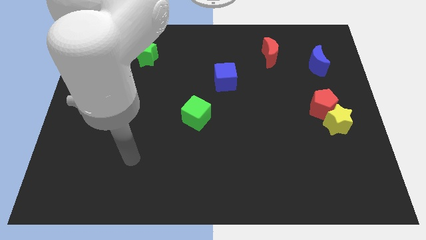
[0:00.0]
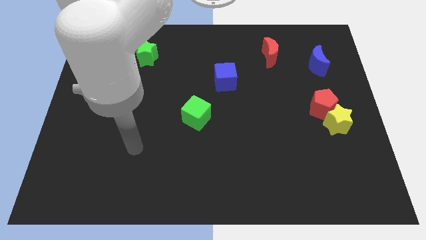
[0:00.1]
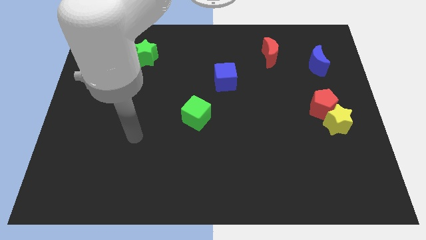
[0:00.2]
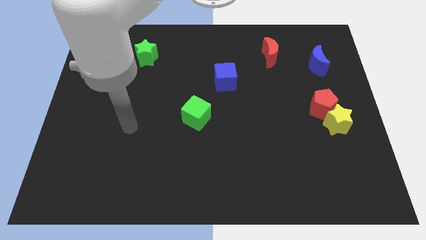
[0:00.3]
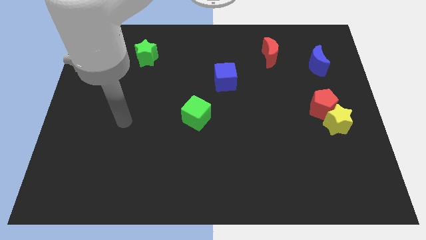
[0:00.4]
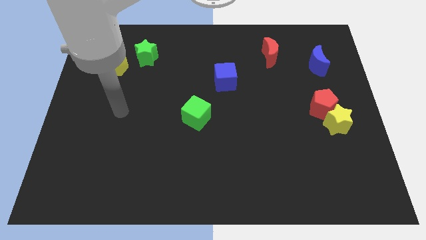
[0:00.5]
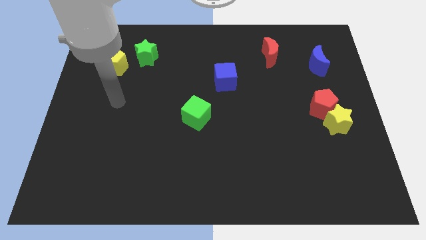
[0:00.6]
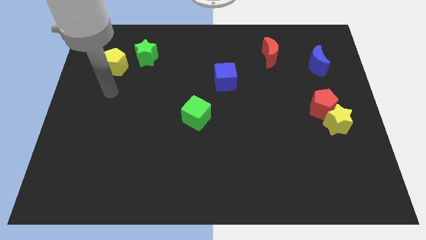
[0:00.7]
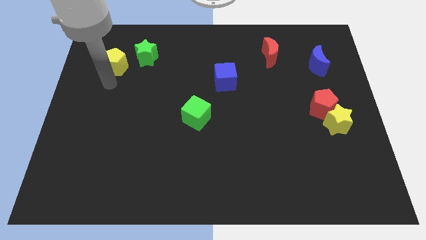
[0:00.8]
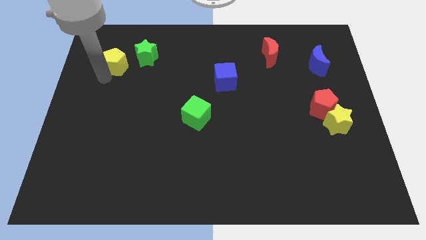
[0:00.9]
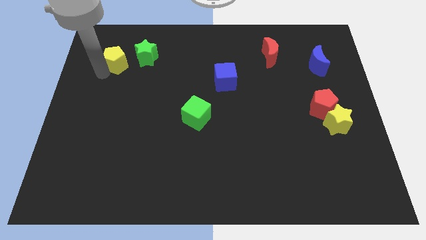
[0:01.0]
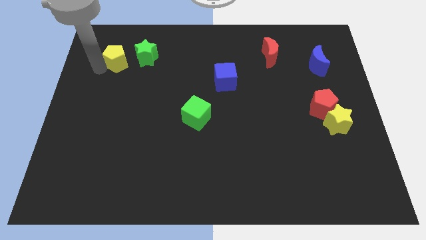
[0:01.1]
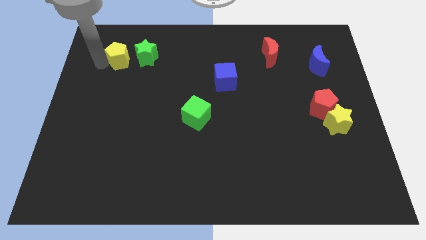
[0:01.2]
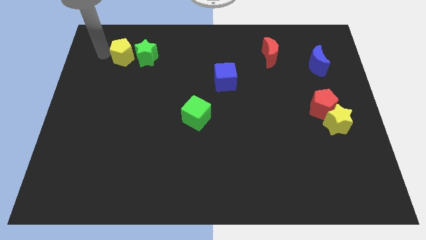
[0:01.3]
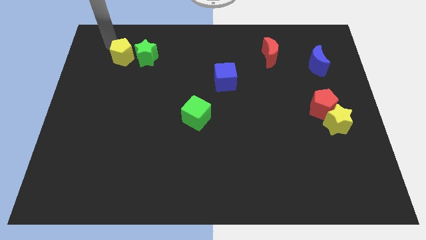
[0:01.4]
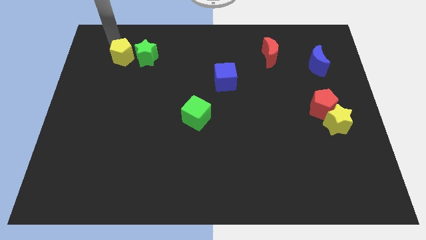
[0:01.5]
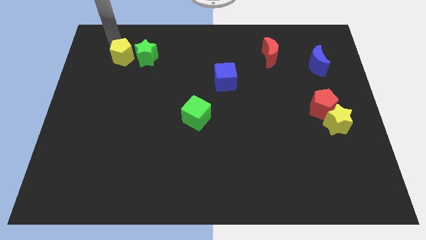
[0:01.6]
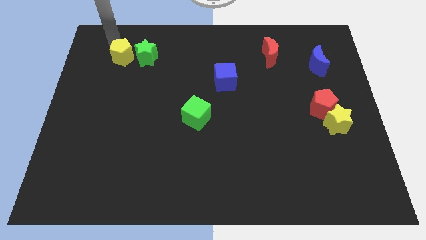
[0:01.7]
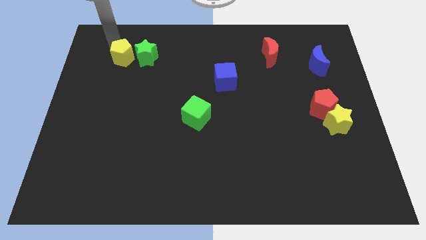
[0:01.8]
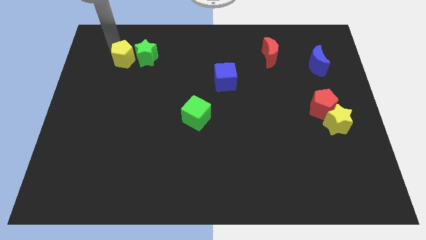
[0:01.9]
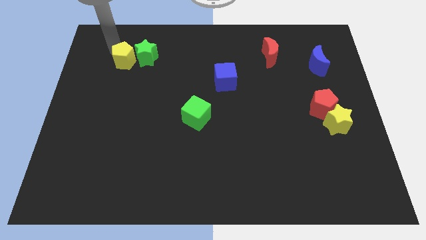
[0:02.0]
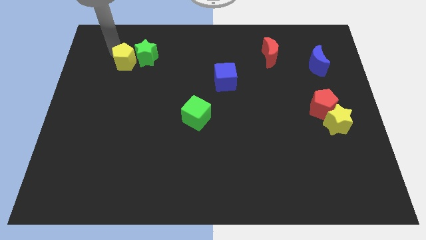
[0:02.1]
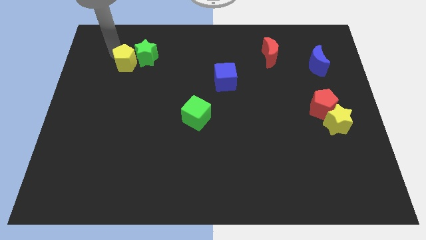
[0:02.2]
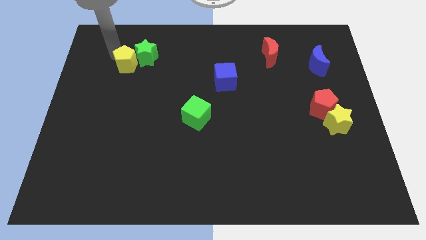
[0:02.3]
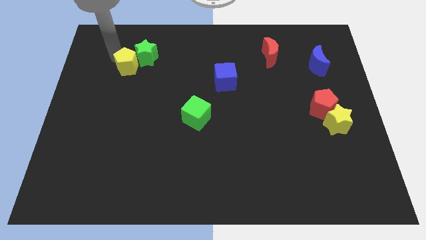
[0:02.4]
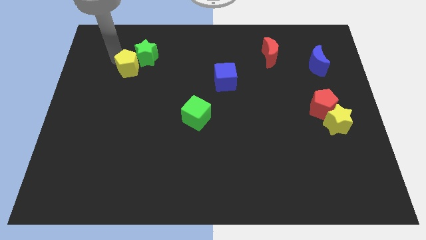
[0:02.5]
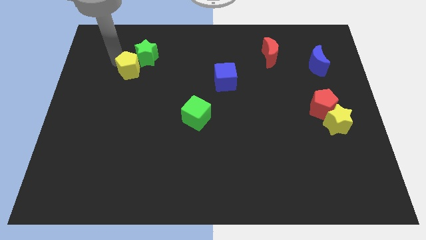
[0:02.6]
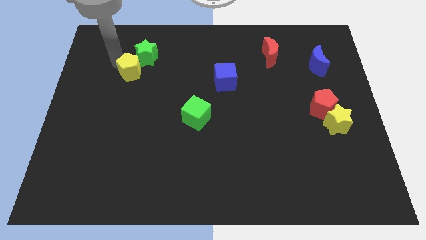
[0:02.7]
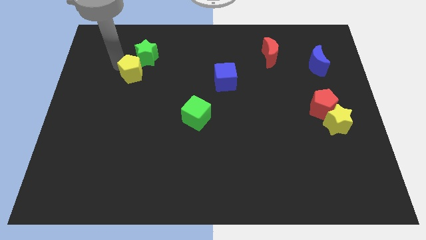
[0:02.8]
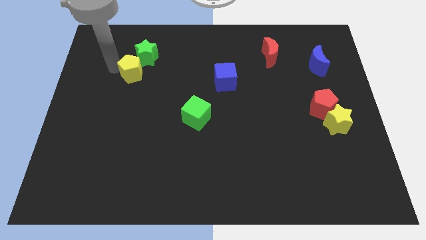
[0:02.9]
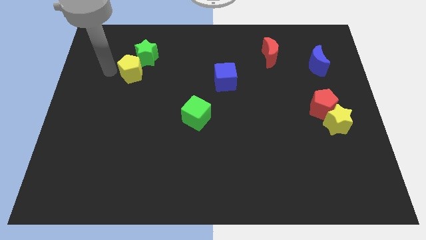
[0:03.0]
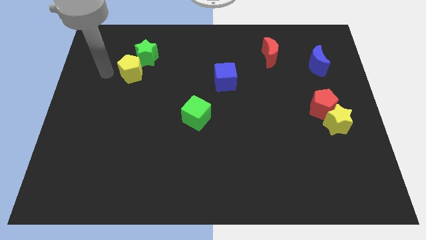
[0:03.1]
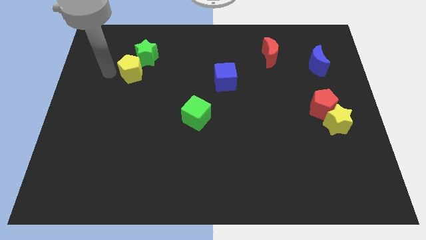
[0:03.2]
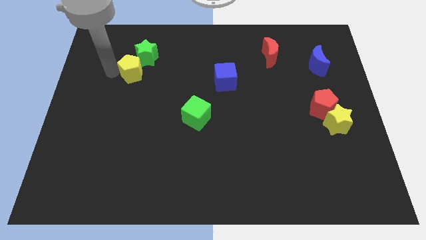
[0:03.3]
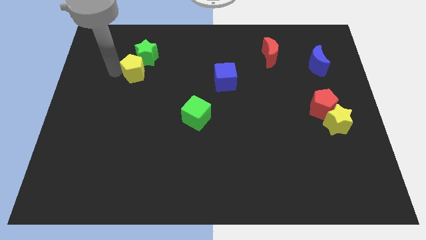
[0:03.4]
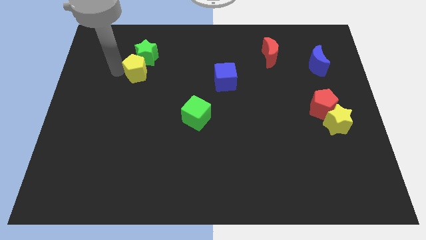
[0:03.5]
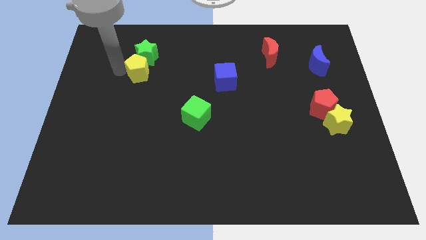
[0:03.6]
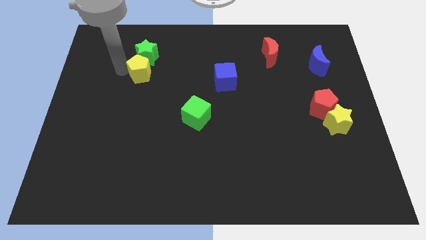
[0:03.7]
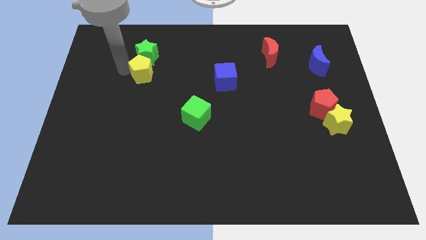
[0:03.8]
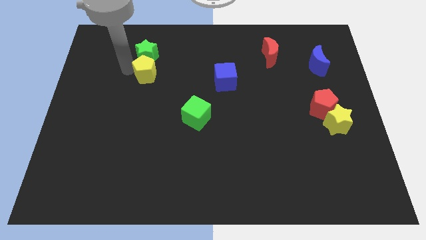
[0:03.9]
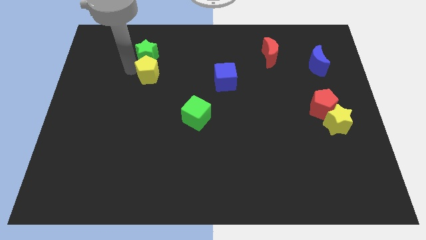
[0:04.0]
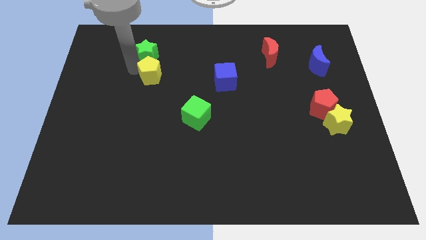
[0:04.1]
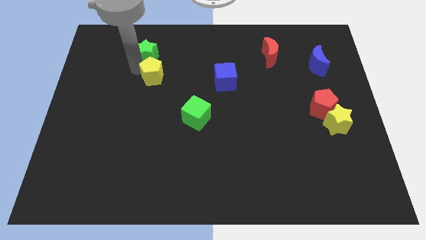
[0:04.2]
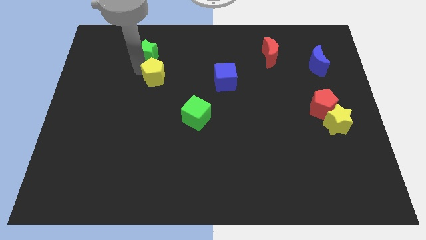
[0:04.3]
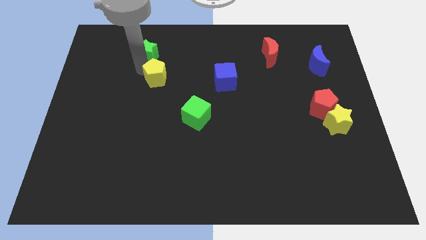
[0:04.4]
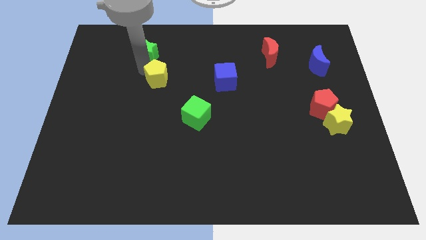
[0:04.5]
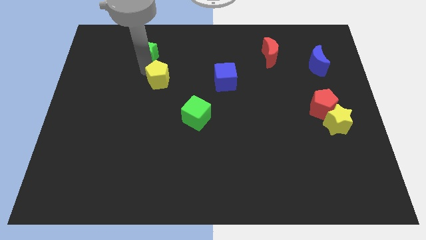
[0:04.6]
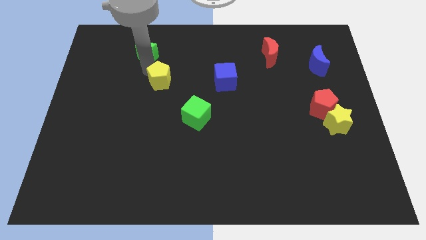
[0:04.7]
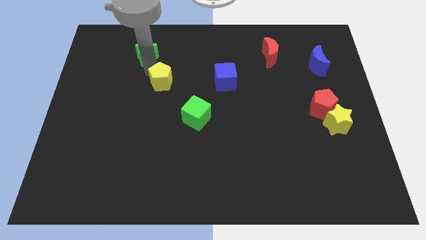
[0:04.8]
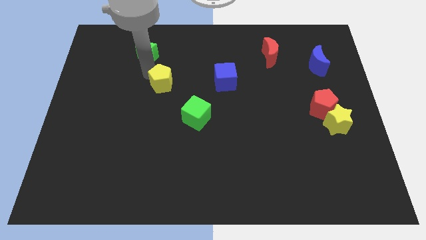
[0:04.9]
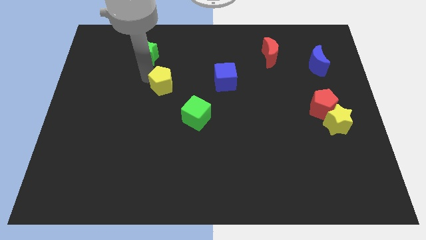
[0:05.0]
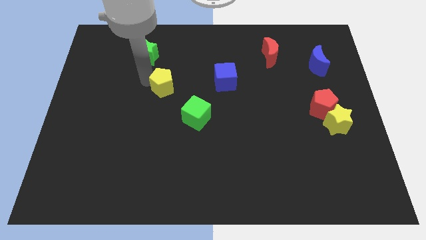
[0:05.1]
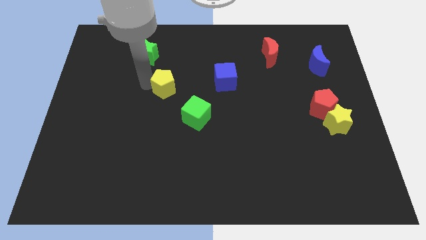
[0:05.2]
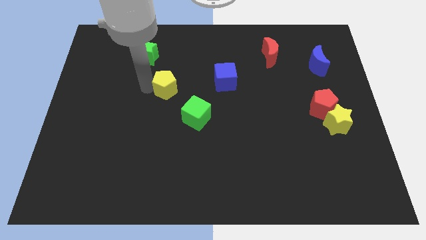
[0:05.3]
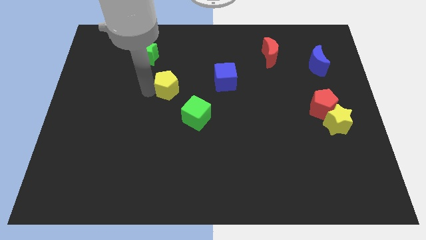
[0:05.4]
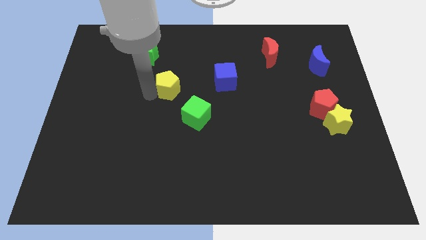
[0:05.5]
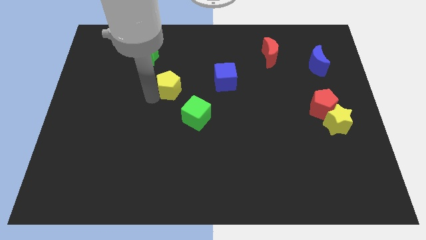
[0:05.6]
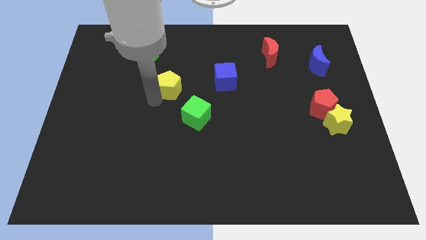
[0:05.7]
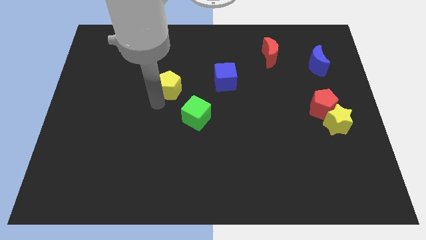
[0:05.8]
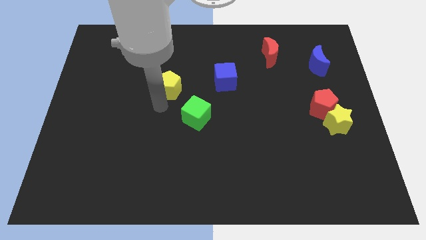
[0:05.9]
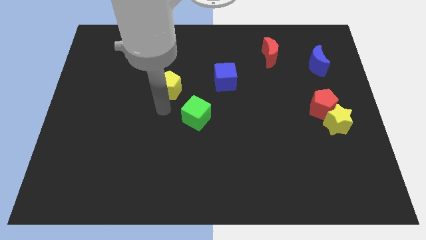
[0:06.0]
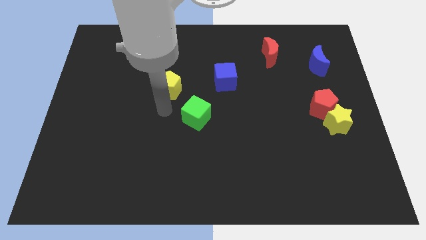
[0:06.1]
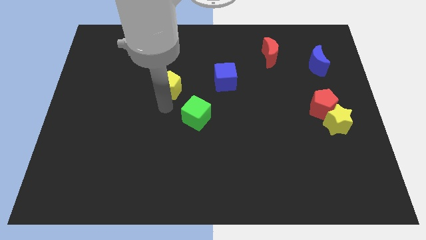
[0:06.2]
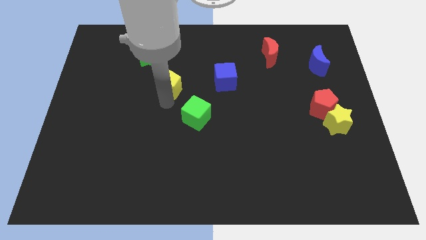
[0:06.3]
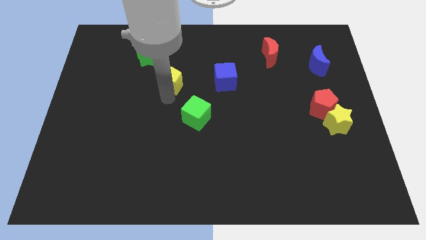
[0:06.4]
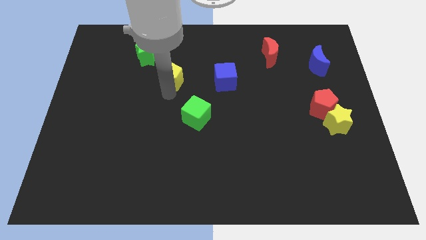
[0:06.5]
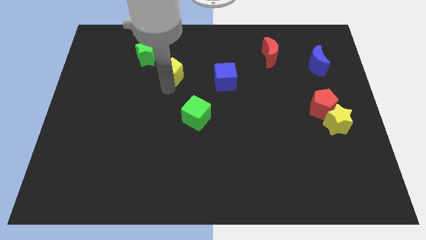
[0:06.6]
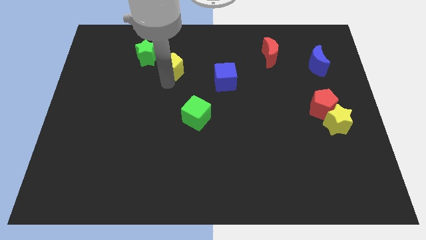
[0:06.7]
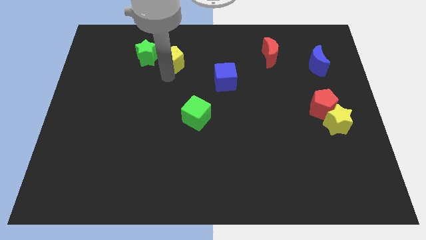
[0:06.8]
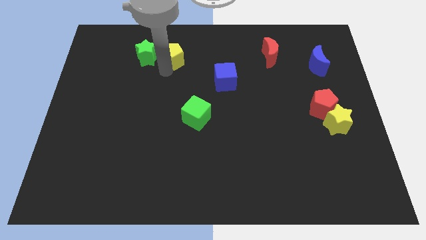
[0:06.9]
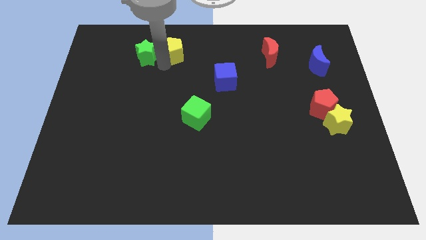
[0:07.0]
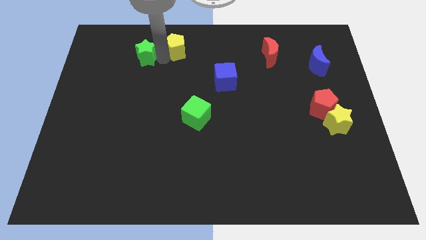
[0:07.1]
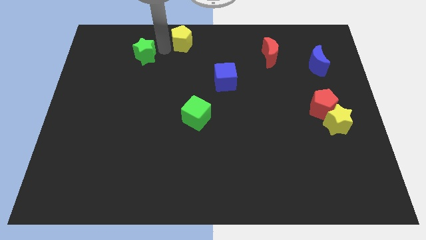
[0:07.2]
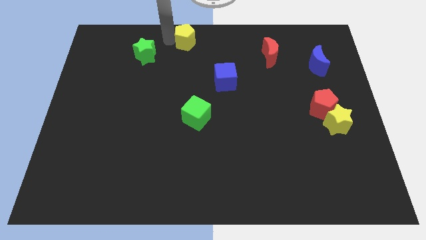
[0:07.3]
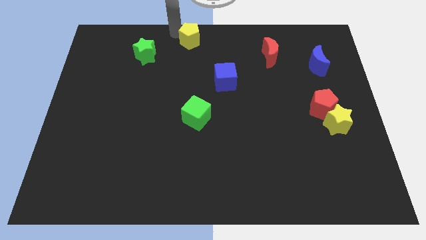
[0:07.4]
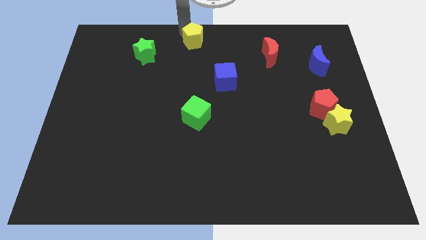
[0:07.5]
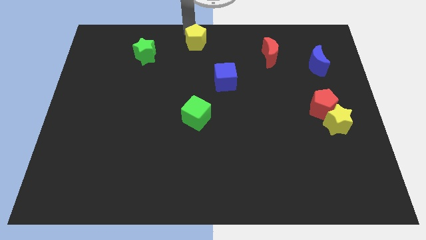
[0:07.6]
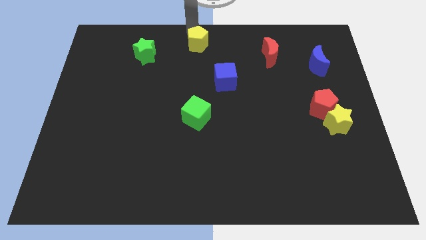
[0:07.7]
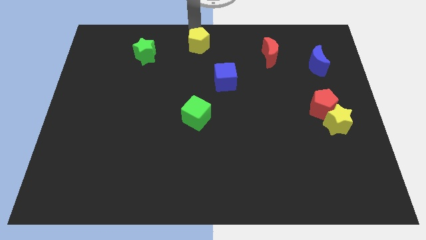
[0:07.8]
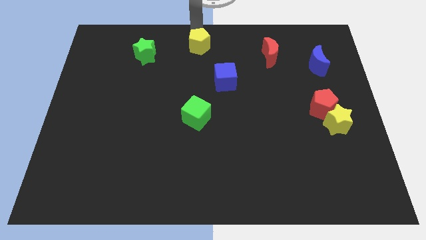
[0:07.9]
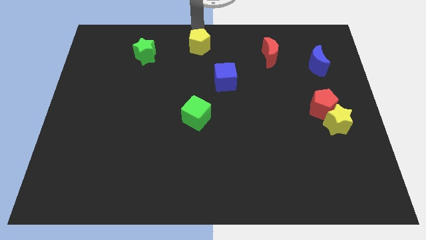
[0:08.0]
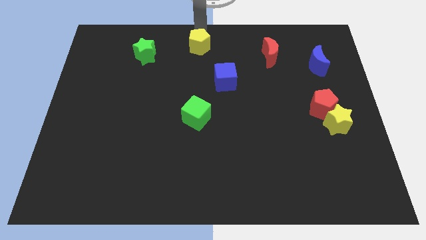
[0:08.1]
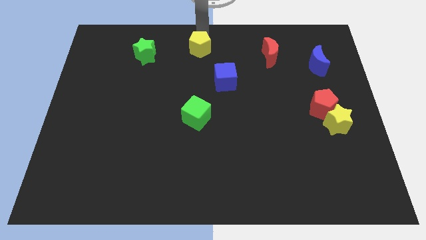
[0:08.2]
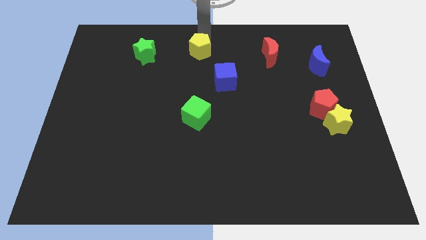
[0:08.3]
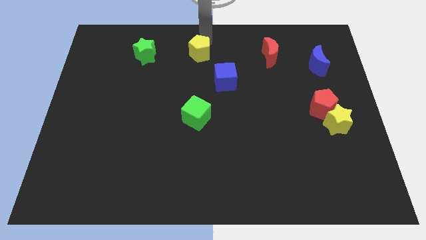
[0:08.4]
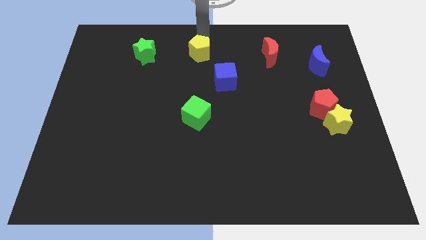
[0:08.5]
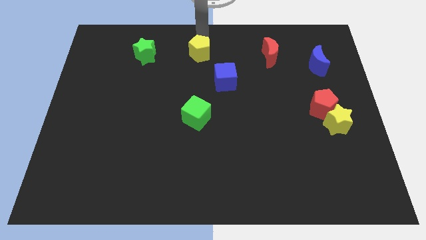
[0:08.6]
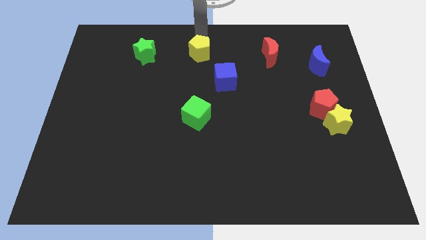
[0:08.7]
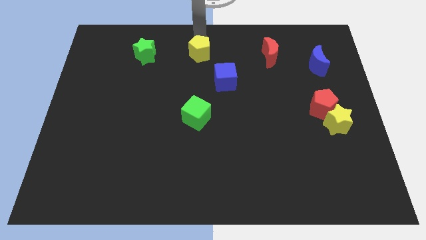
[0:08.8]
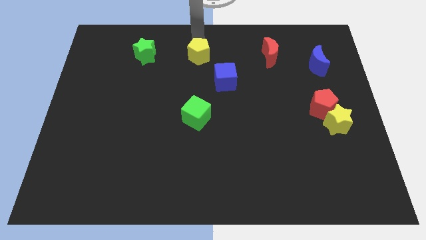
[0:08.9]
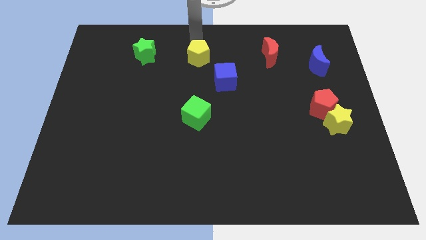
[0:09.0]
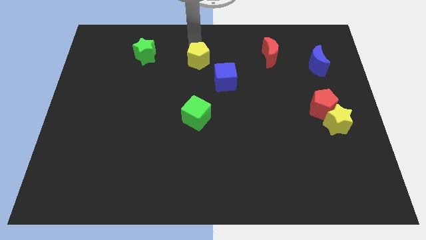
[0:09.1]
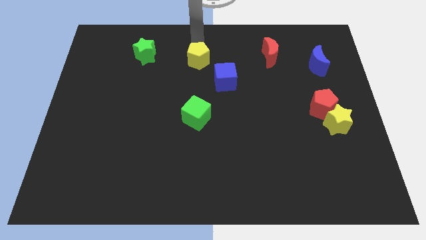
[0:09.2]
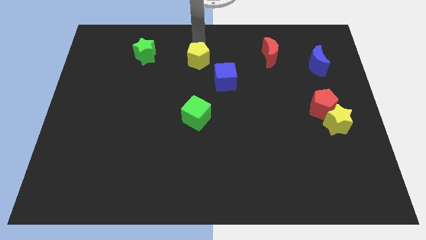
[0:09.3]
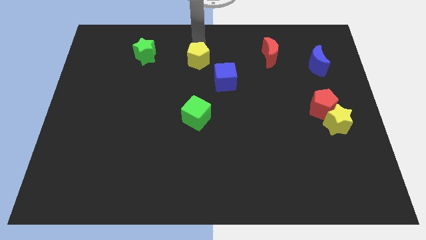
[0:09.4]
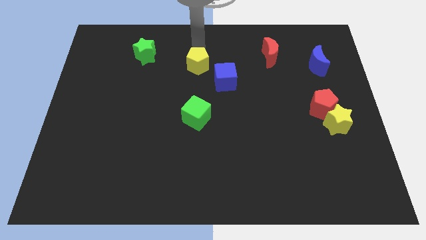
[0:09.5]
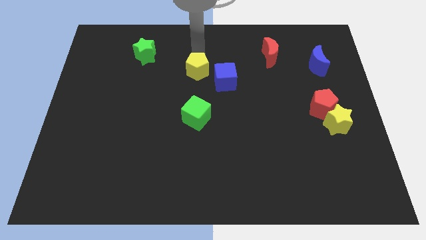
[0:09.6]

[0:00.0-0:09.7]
push the yellow pentagon to the top side of the green cube
